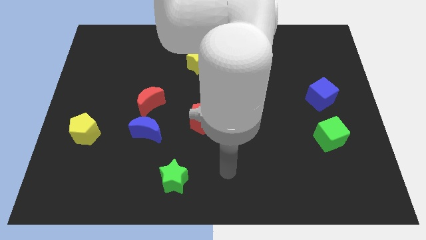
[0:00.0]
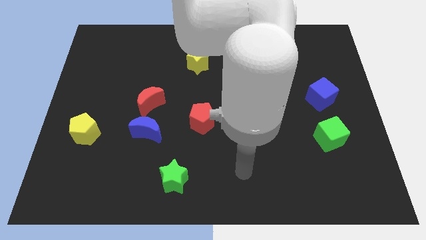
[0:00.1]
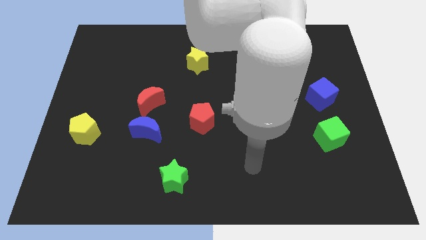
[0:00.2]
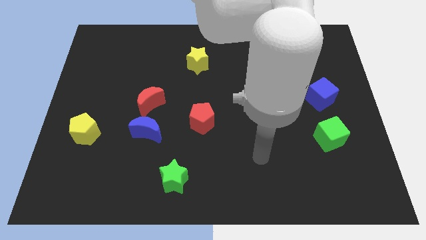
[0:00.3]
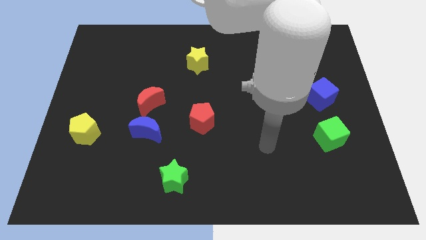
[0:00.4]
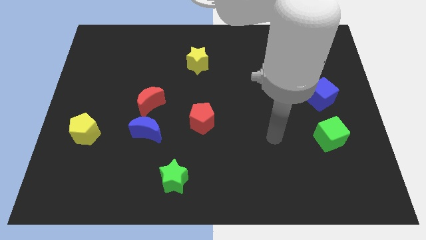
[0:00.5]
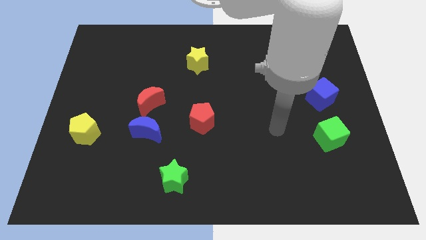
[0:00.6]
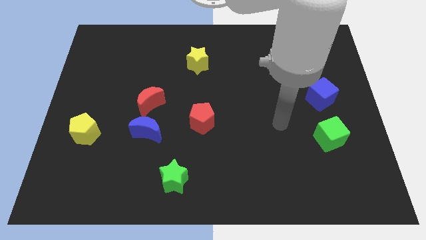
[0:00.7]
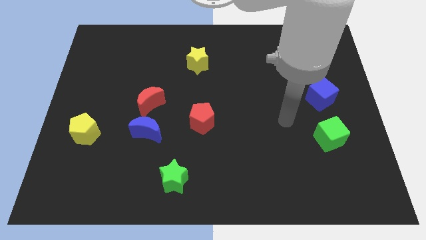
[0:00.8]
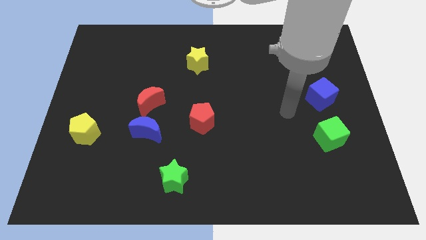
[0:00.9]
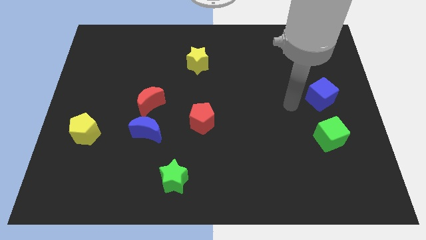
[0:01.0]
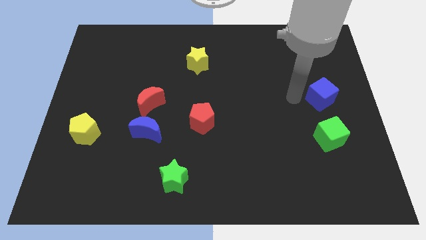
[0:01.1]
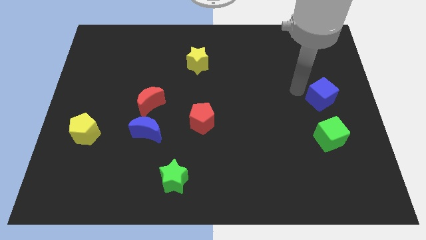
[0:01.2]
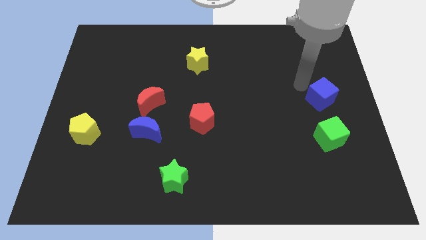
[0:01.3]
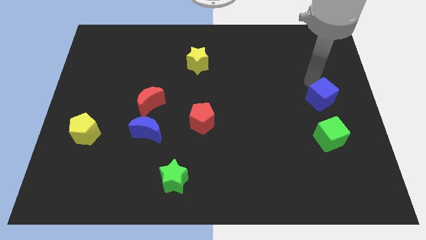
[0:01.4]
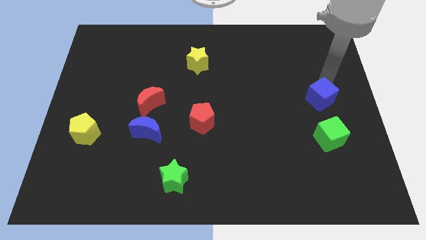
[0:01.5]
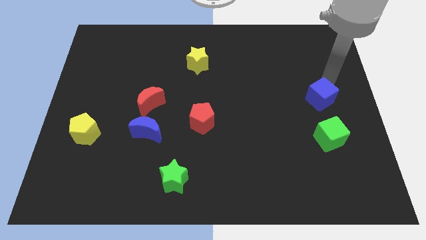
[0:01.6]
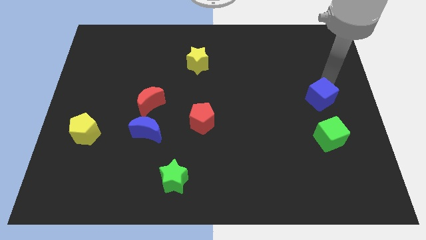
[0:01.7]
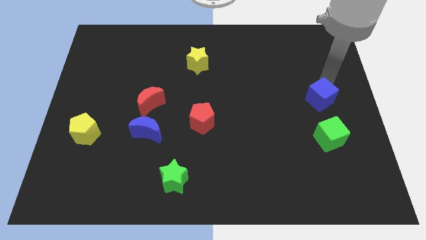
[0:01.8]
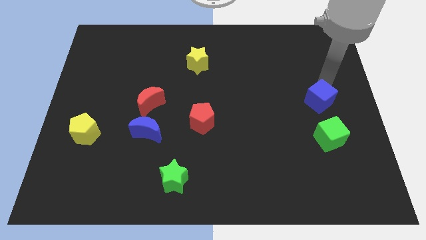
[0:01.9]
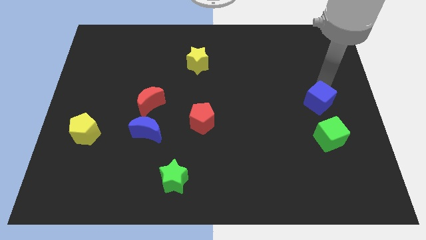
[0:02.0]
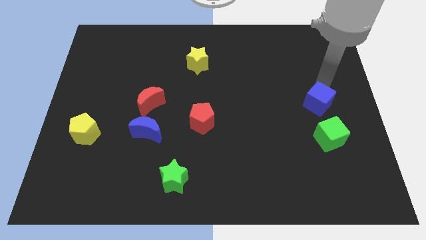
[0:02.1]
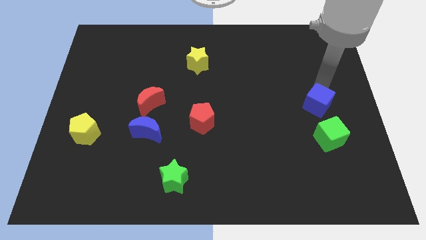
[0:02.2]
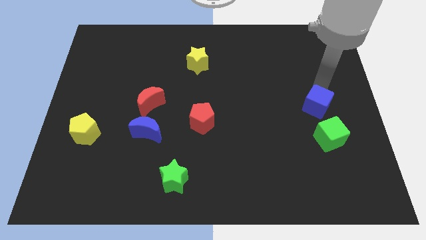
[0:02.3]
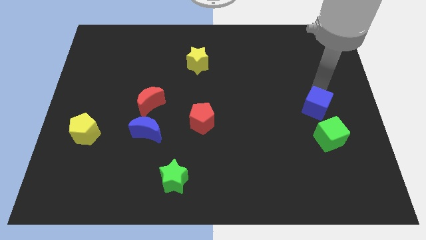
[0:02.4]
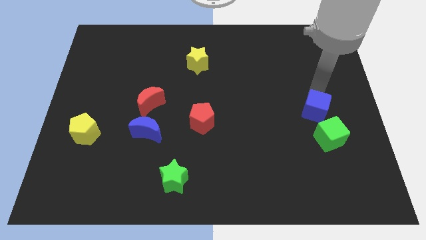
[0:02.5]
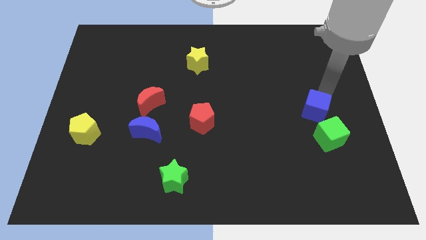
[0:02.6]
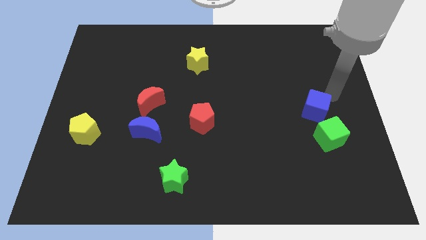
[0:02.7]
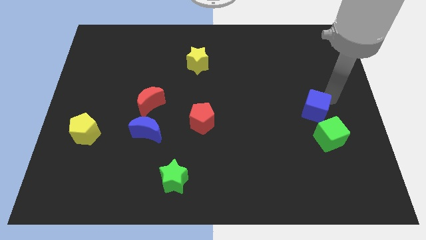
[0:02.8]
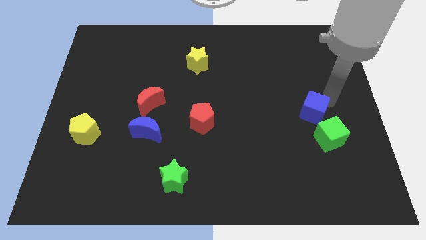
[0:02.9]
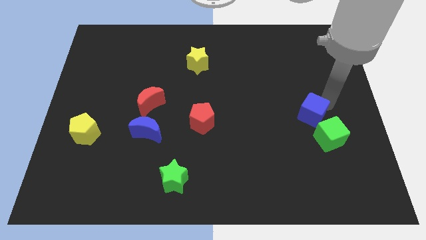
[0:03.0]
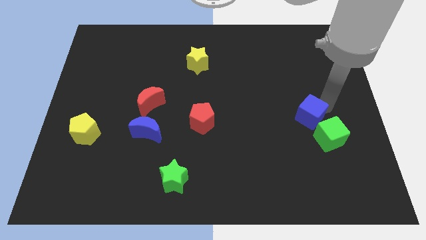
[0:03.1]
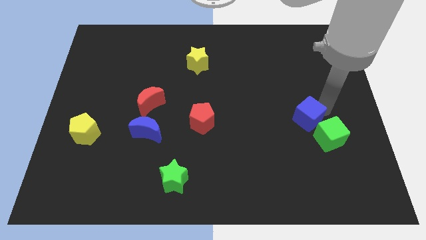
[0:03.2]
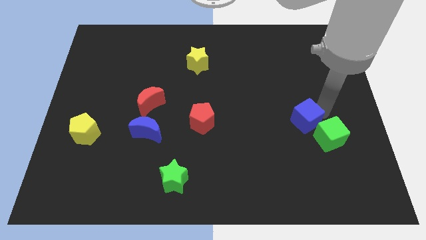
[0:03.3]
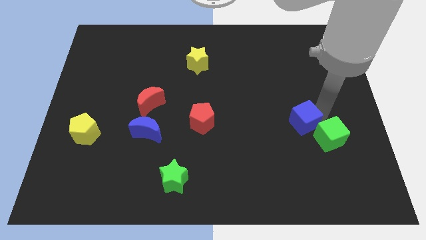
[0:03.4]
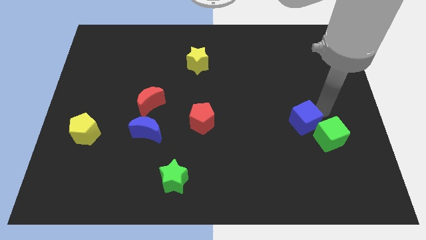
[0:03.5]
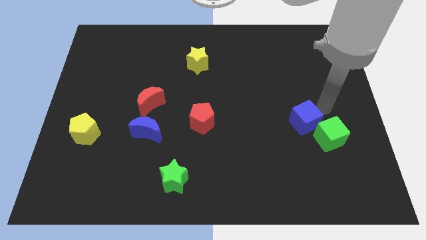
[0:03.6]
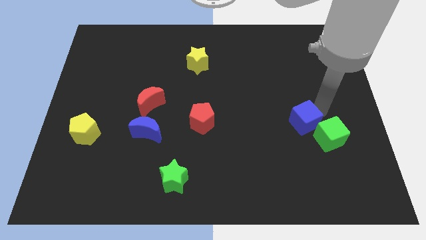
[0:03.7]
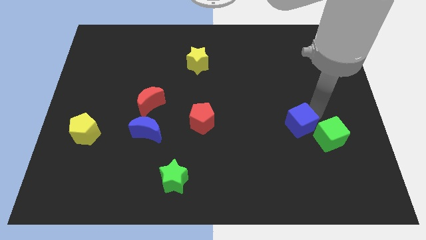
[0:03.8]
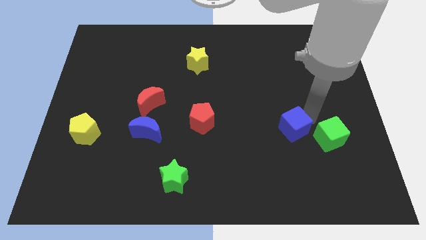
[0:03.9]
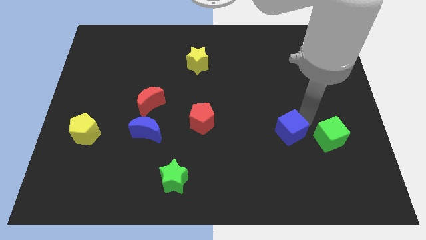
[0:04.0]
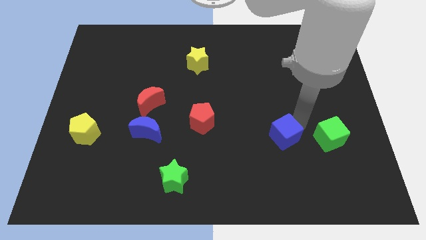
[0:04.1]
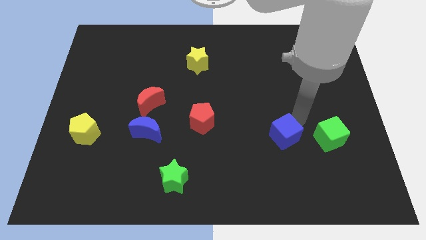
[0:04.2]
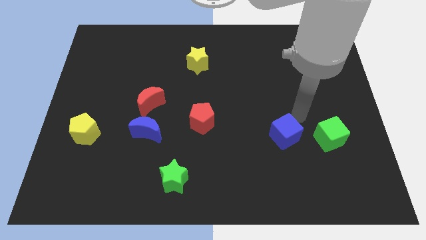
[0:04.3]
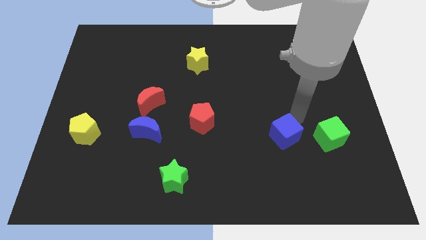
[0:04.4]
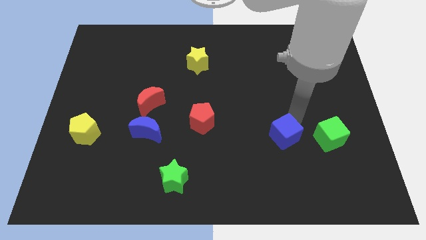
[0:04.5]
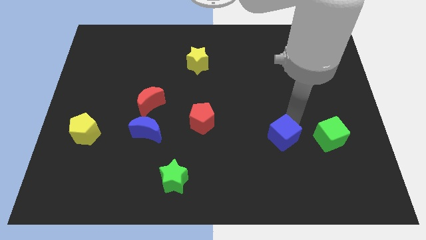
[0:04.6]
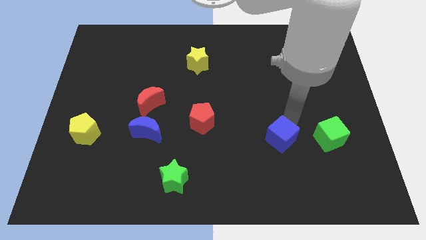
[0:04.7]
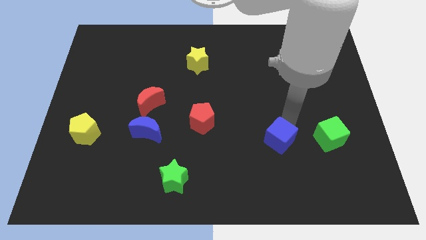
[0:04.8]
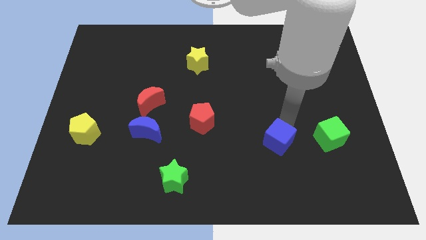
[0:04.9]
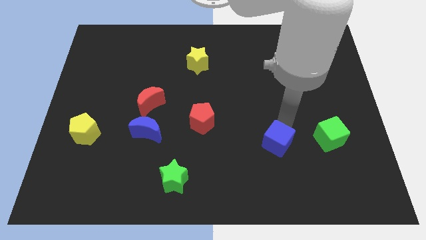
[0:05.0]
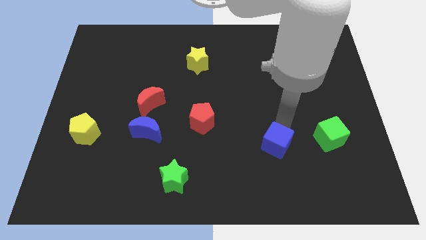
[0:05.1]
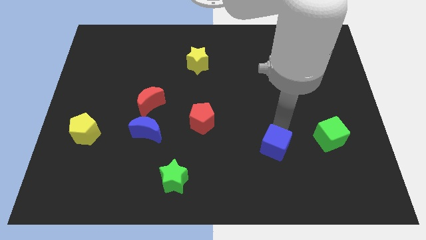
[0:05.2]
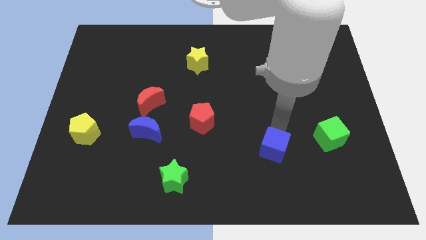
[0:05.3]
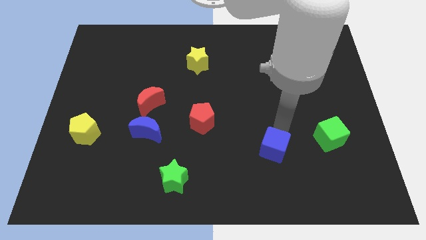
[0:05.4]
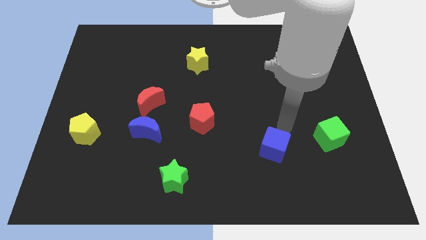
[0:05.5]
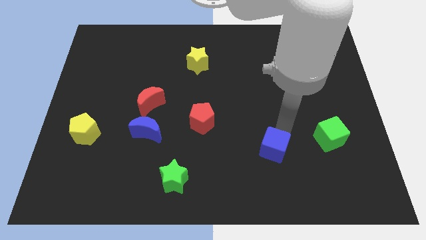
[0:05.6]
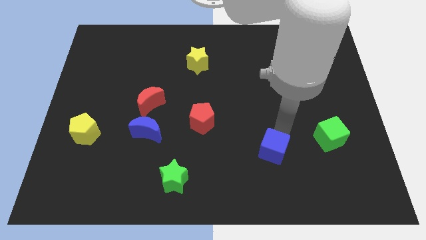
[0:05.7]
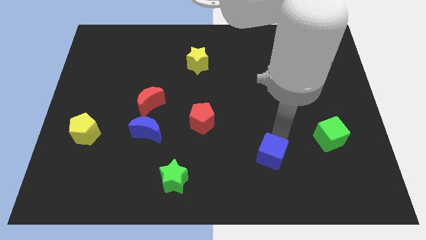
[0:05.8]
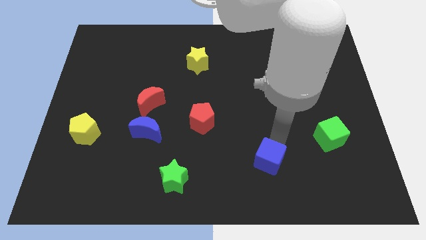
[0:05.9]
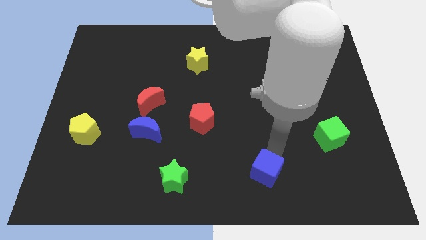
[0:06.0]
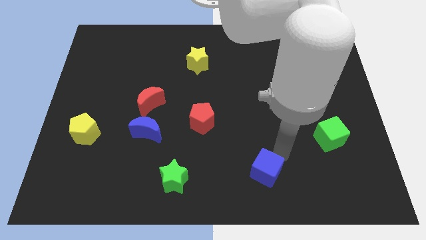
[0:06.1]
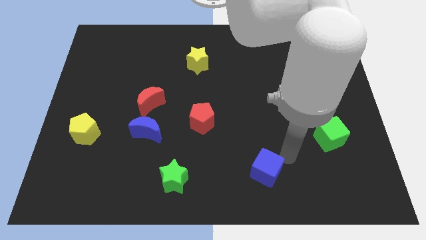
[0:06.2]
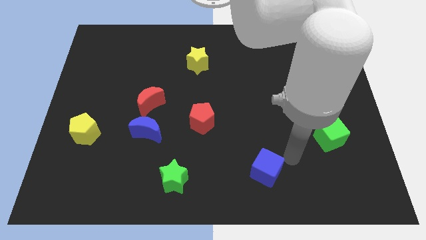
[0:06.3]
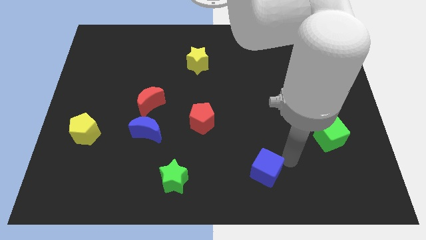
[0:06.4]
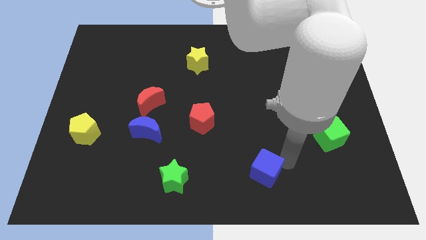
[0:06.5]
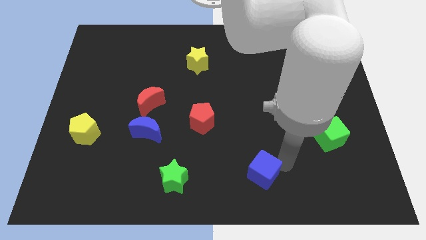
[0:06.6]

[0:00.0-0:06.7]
move the blue cube to the bottom

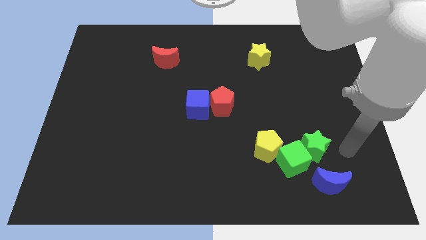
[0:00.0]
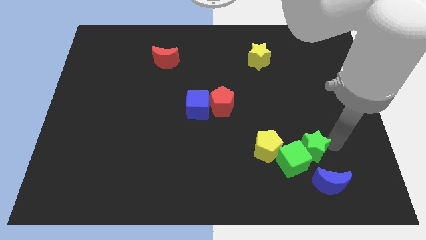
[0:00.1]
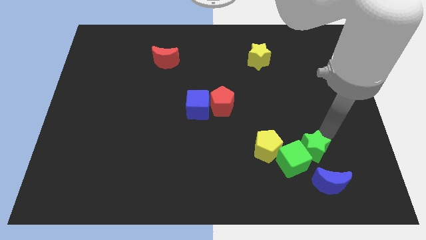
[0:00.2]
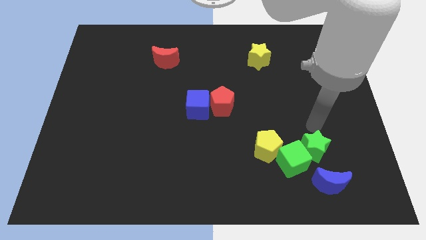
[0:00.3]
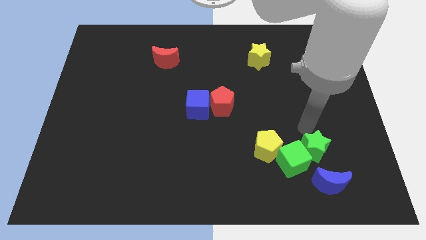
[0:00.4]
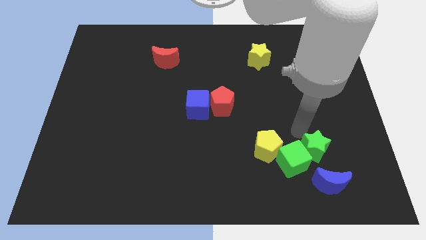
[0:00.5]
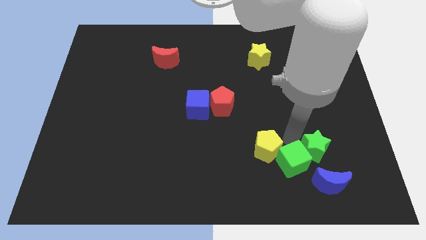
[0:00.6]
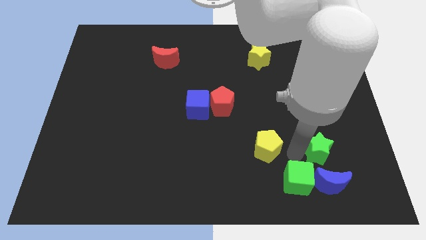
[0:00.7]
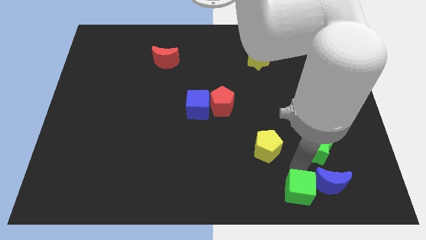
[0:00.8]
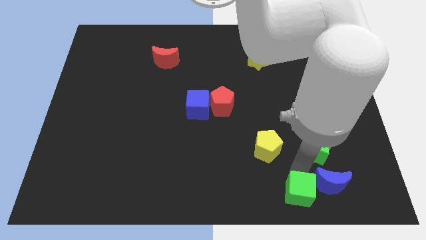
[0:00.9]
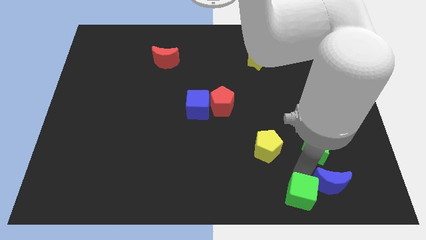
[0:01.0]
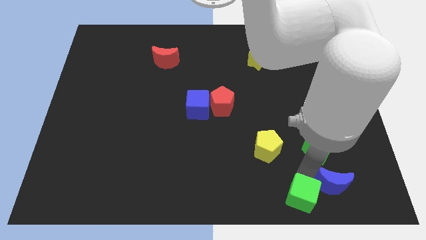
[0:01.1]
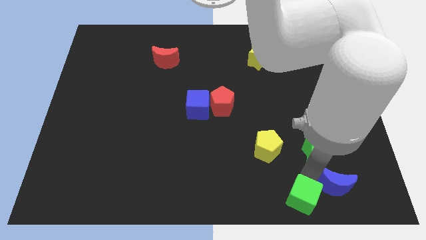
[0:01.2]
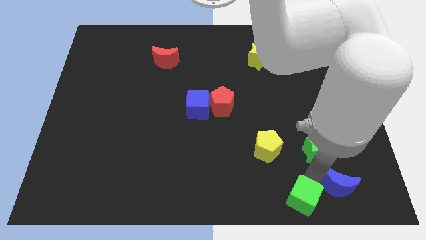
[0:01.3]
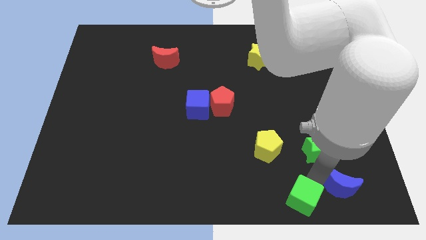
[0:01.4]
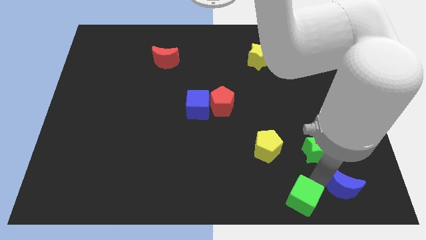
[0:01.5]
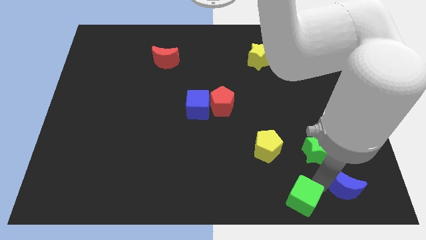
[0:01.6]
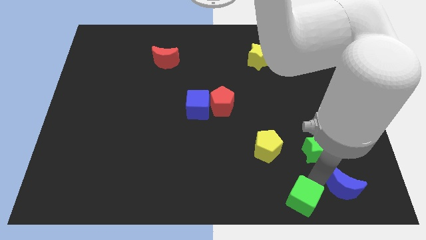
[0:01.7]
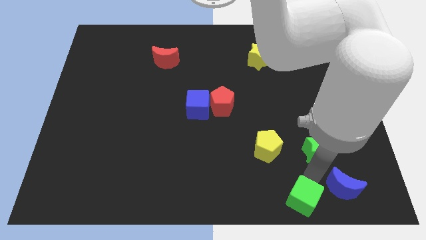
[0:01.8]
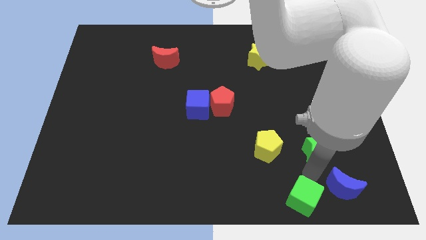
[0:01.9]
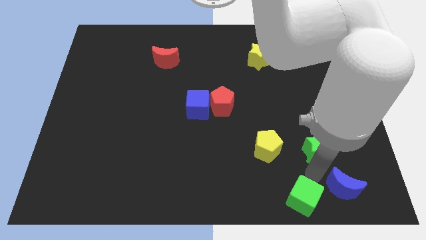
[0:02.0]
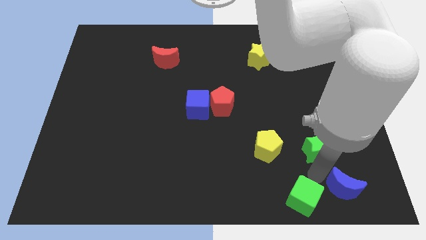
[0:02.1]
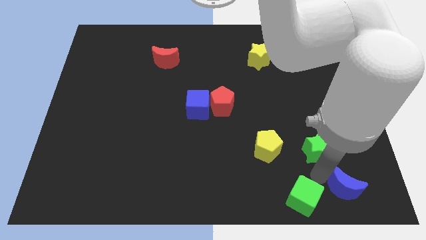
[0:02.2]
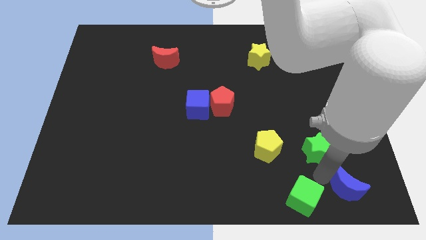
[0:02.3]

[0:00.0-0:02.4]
put the blue moon to the bottom right corner
